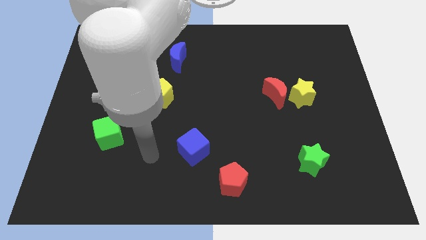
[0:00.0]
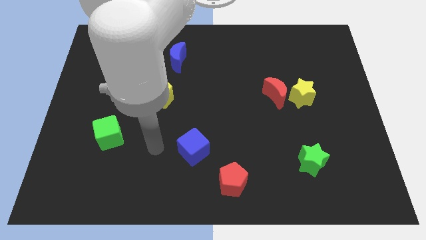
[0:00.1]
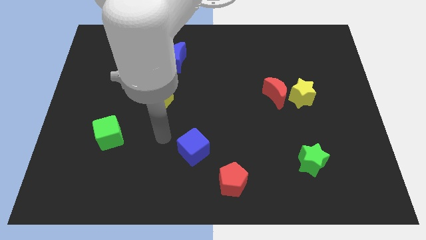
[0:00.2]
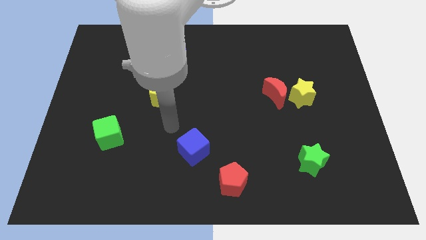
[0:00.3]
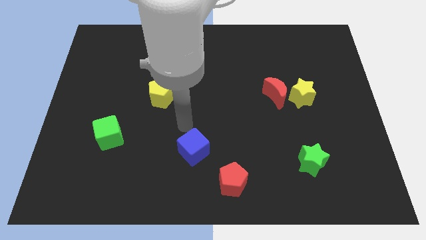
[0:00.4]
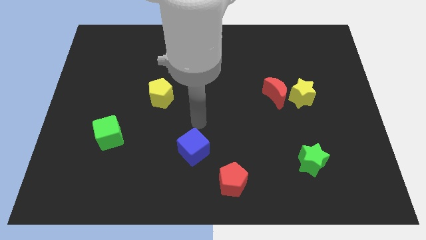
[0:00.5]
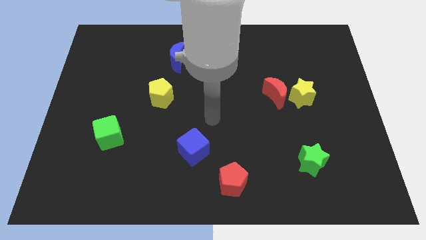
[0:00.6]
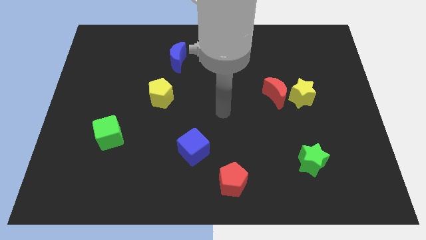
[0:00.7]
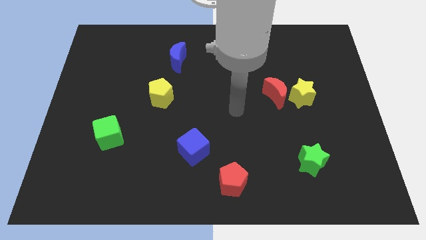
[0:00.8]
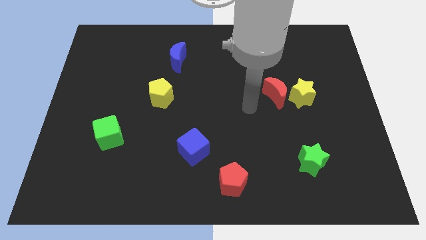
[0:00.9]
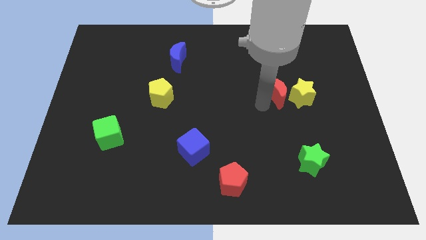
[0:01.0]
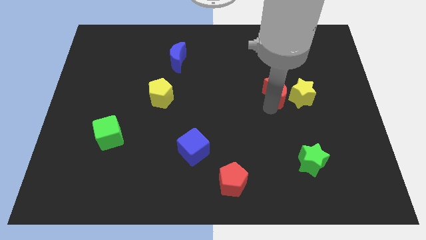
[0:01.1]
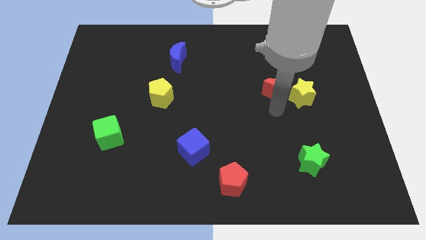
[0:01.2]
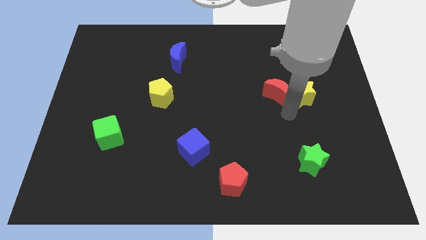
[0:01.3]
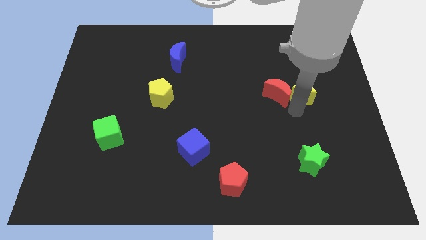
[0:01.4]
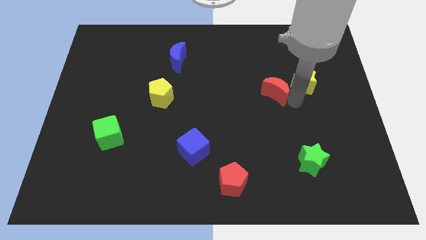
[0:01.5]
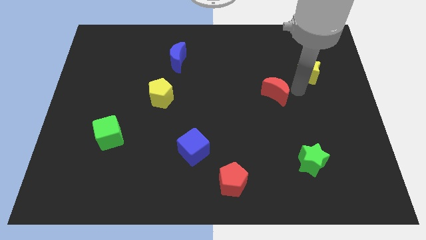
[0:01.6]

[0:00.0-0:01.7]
pull the red moon apart from the yellow star

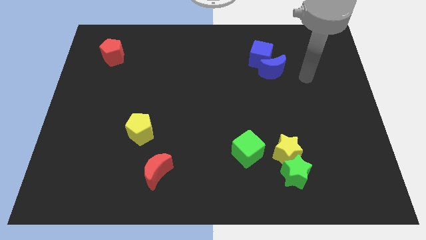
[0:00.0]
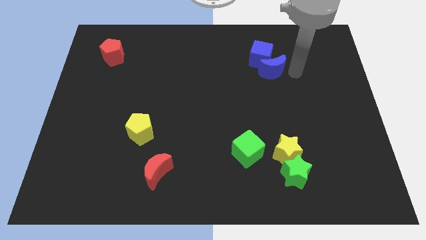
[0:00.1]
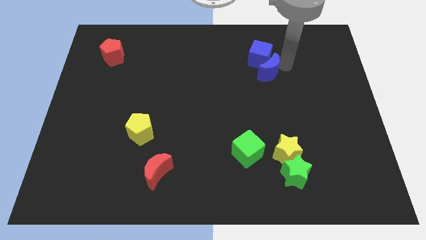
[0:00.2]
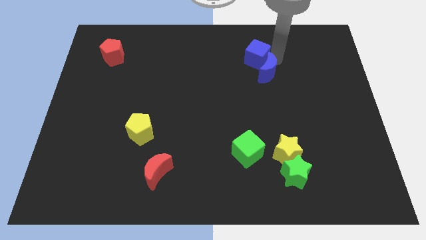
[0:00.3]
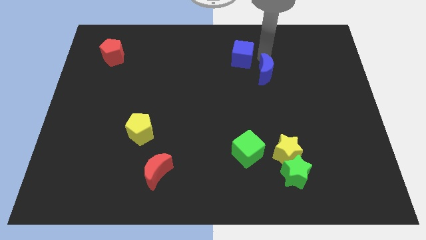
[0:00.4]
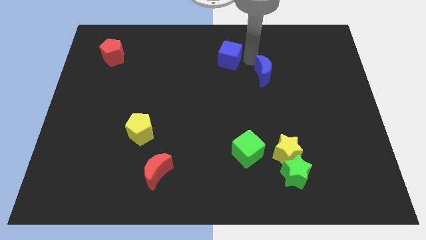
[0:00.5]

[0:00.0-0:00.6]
separate the blue moon from the blue cube

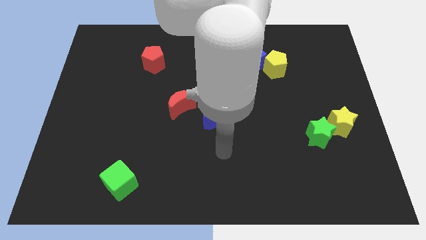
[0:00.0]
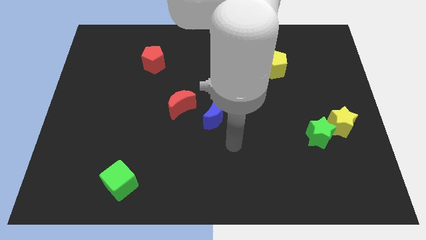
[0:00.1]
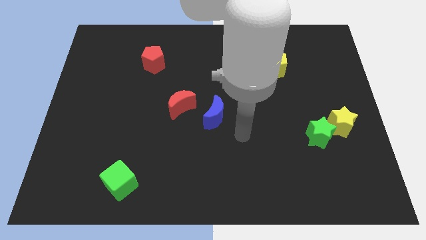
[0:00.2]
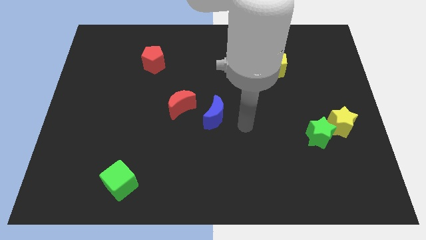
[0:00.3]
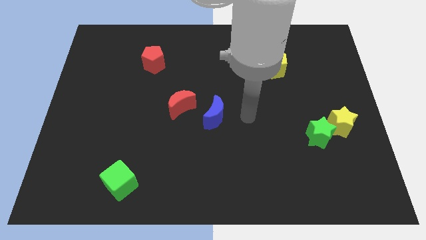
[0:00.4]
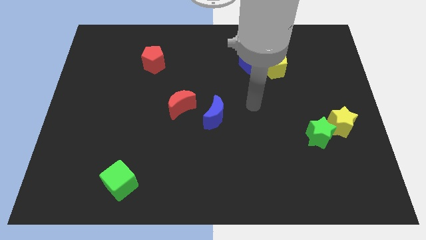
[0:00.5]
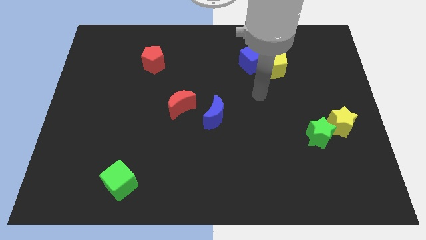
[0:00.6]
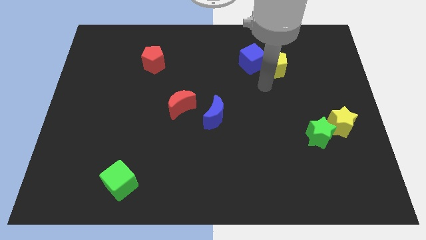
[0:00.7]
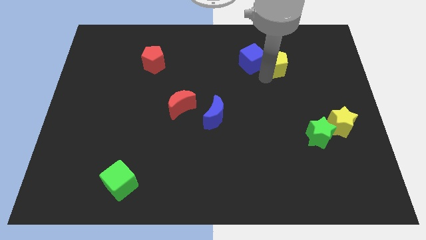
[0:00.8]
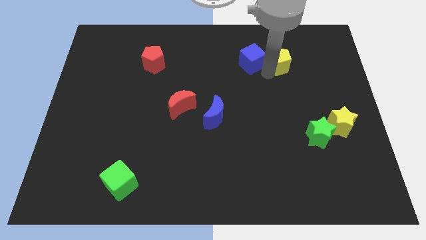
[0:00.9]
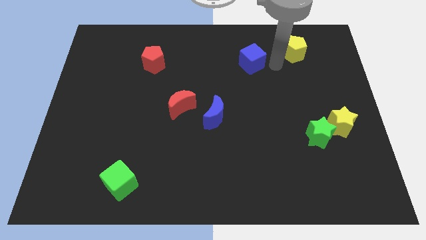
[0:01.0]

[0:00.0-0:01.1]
move the blue cube away from the yellow pentagon

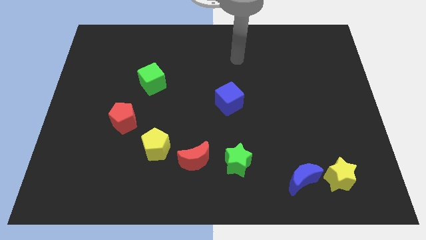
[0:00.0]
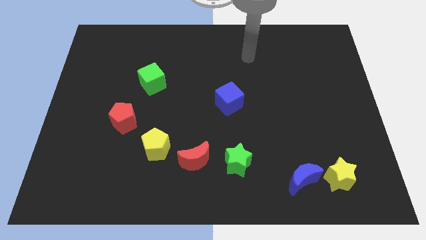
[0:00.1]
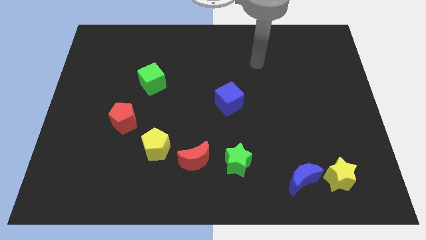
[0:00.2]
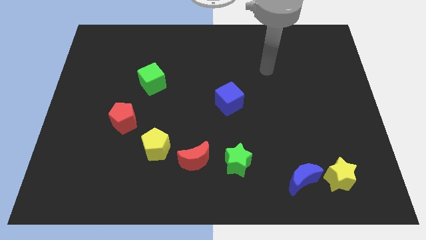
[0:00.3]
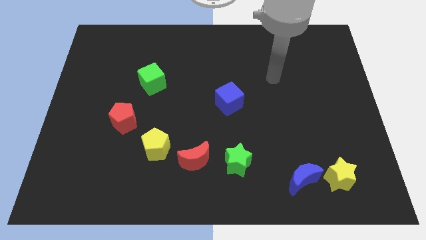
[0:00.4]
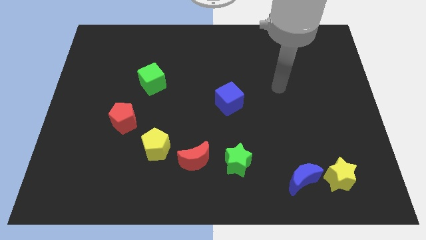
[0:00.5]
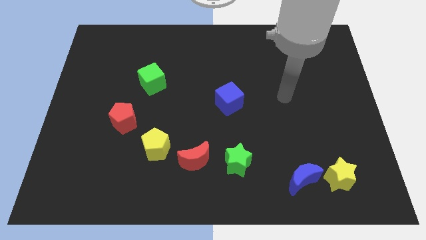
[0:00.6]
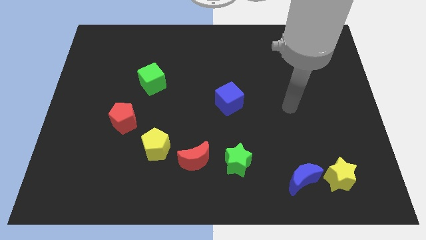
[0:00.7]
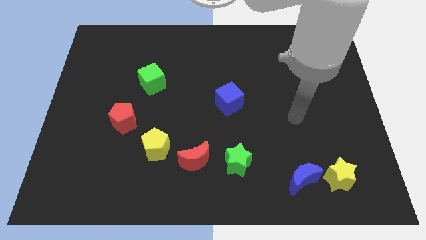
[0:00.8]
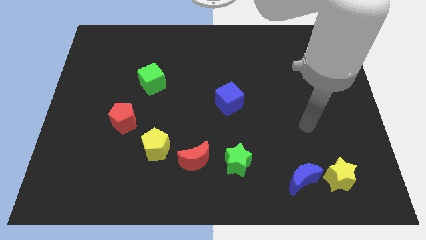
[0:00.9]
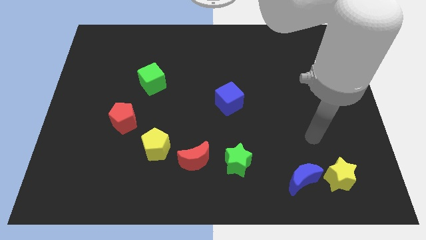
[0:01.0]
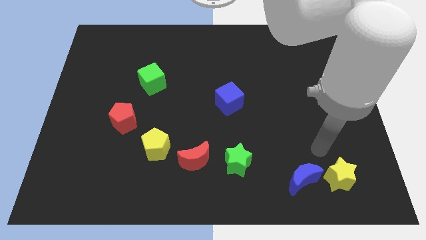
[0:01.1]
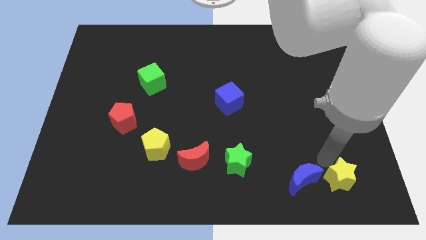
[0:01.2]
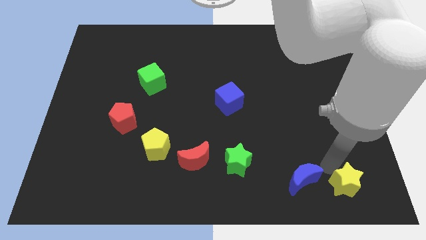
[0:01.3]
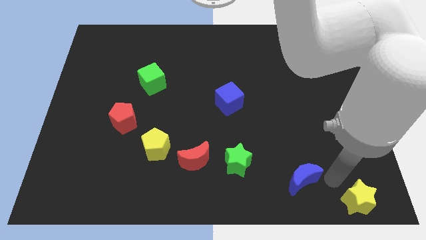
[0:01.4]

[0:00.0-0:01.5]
move the blue moon away from the yellow star

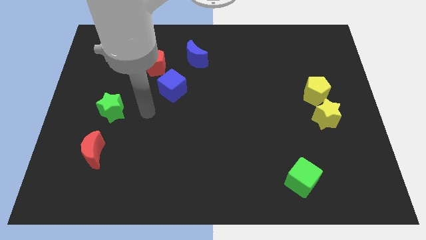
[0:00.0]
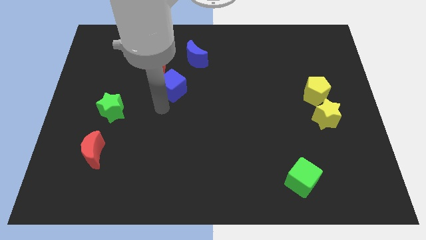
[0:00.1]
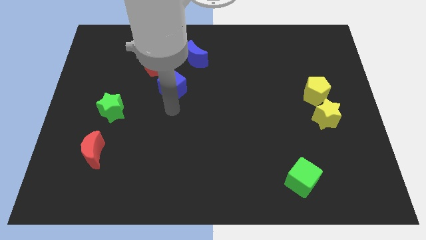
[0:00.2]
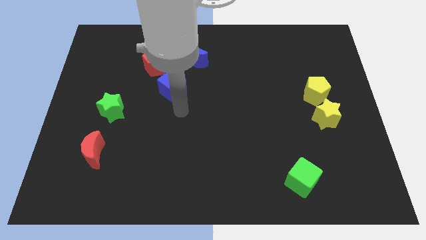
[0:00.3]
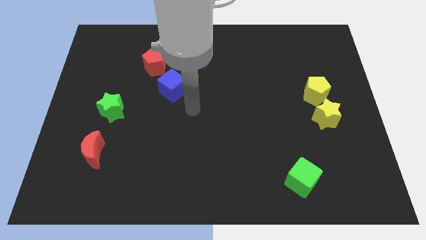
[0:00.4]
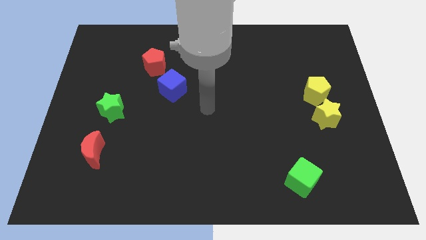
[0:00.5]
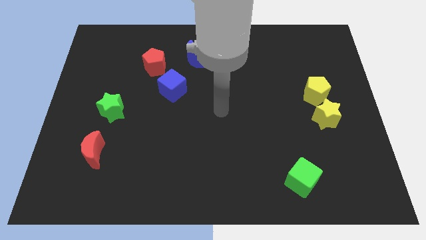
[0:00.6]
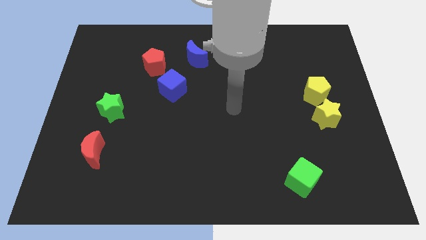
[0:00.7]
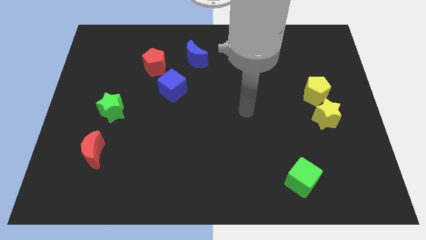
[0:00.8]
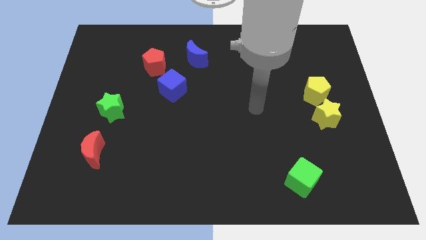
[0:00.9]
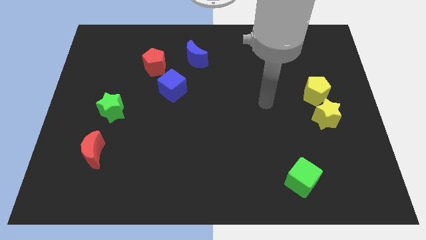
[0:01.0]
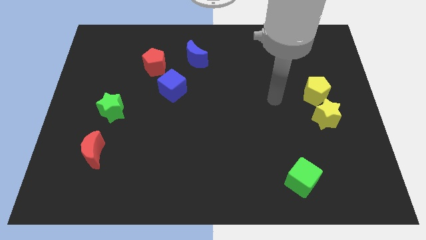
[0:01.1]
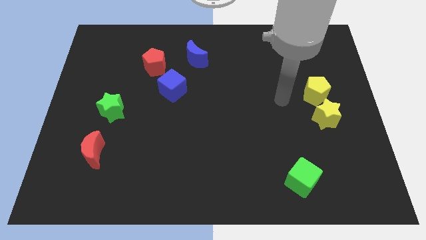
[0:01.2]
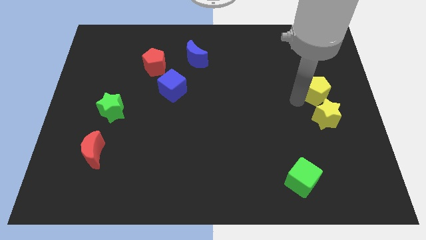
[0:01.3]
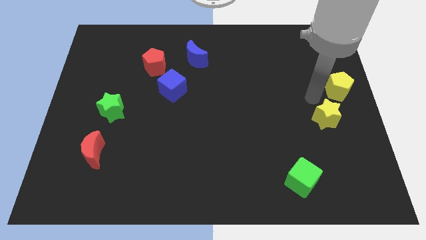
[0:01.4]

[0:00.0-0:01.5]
separate the yellow star from the yellow pentagon

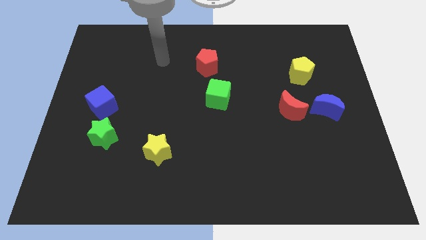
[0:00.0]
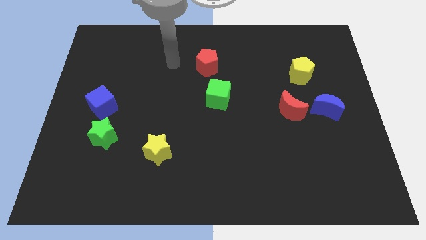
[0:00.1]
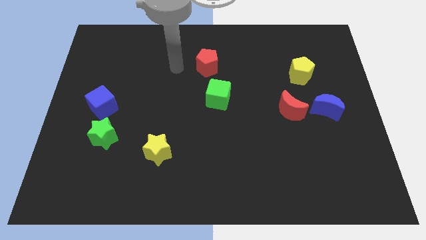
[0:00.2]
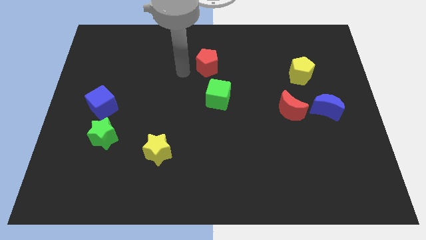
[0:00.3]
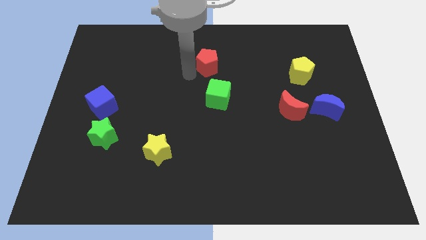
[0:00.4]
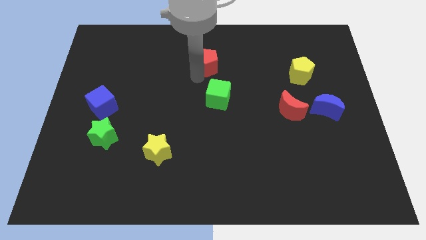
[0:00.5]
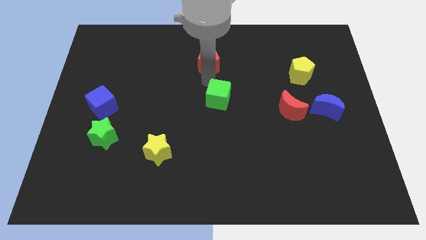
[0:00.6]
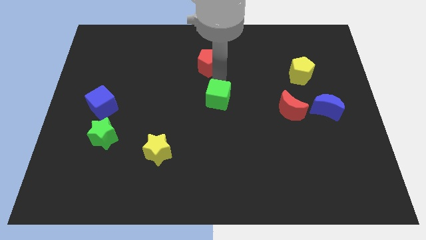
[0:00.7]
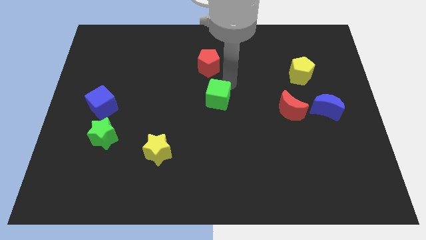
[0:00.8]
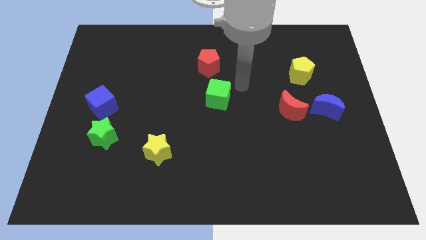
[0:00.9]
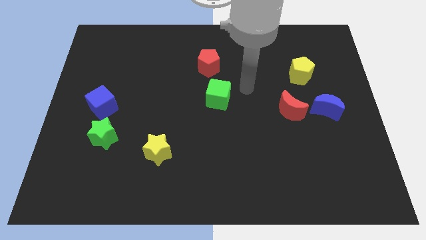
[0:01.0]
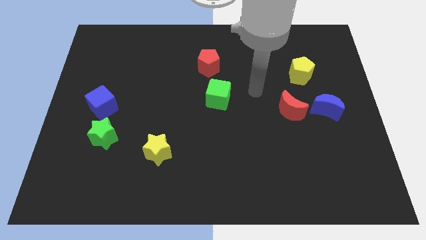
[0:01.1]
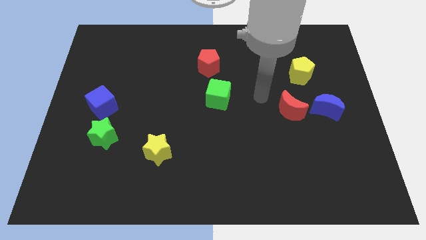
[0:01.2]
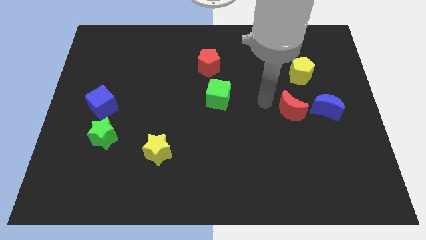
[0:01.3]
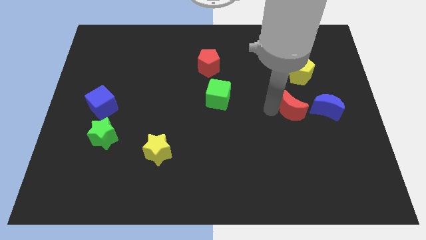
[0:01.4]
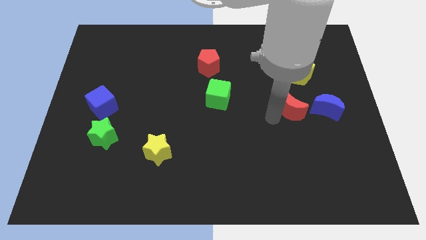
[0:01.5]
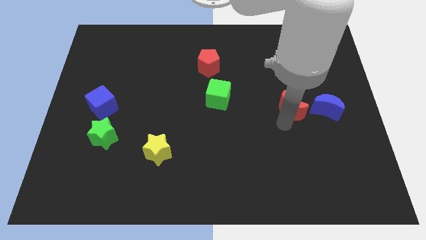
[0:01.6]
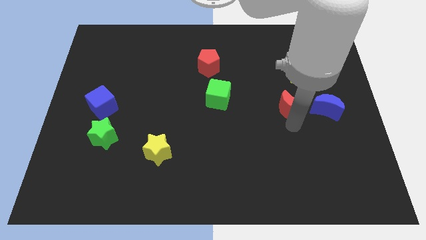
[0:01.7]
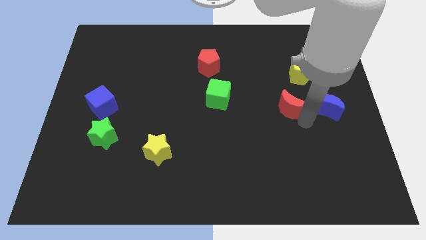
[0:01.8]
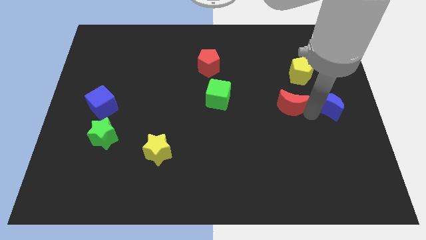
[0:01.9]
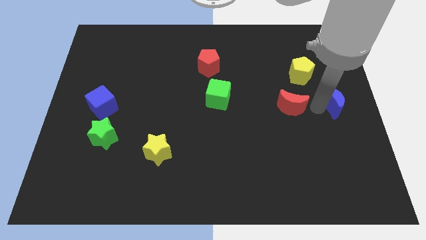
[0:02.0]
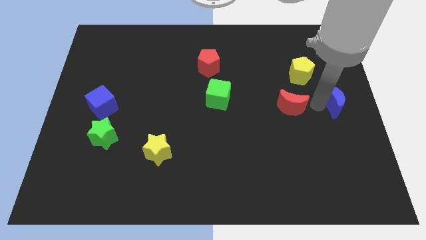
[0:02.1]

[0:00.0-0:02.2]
pull the red moon apart from the blue moon

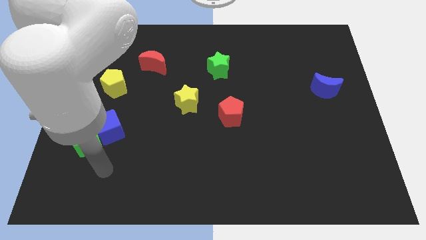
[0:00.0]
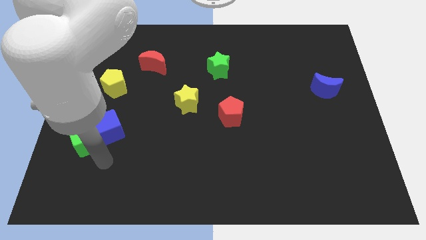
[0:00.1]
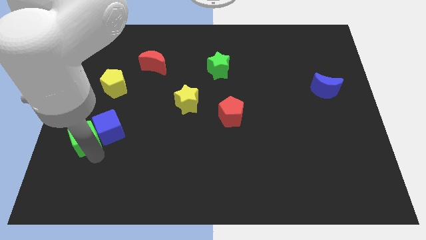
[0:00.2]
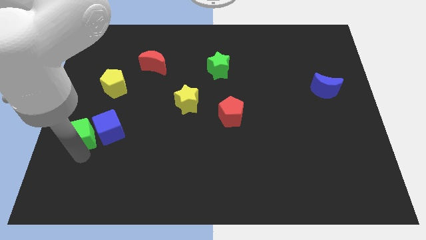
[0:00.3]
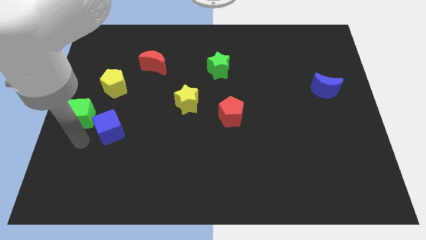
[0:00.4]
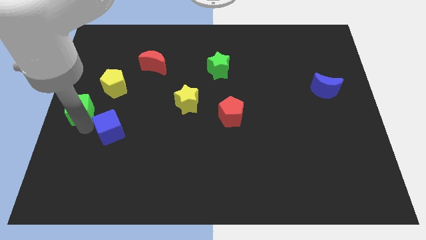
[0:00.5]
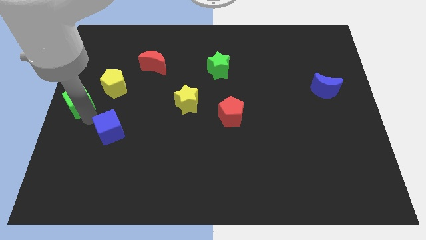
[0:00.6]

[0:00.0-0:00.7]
move the blue cube away from the green cube
